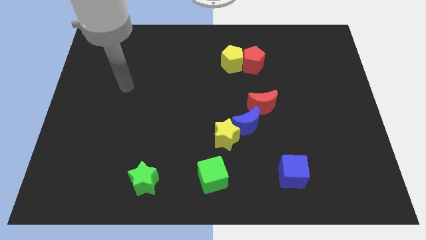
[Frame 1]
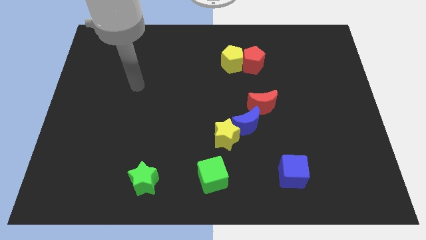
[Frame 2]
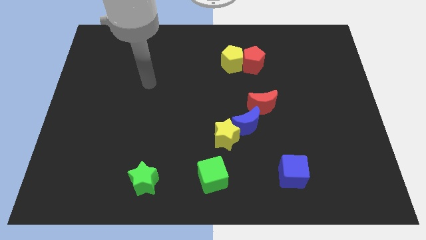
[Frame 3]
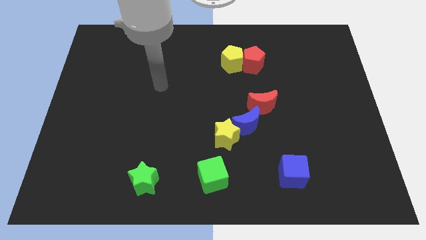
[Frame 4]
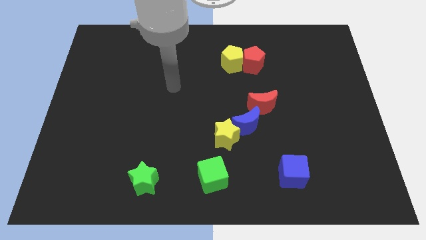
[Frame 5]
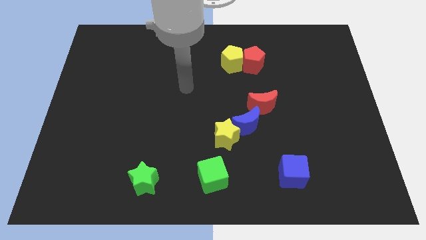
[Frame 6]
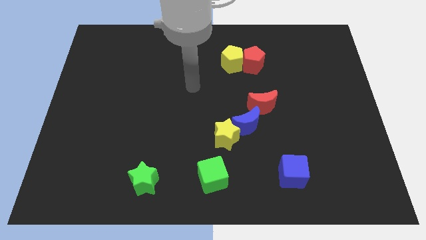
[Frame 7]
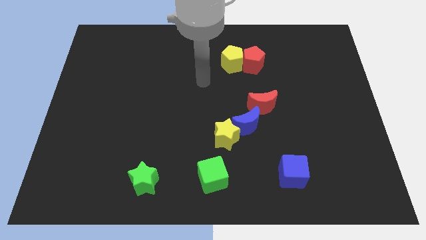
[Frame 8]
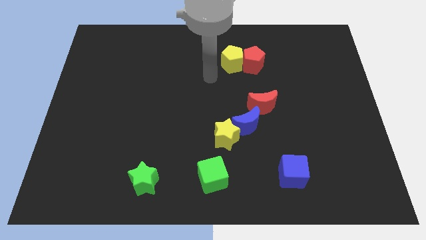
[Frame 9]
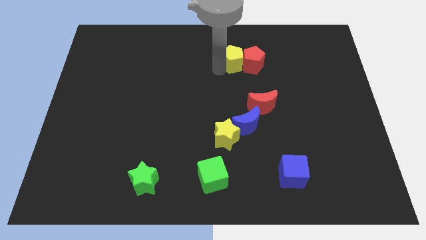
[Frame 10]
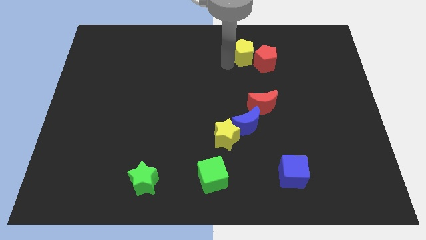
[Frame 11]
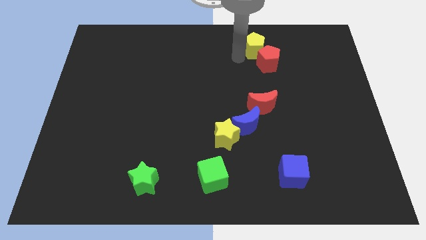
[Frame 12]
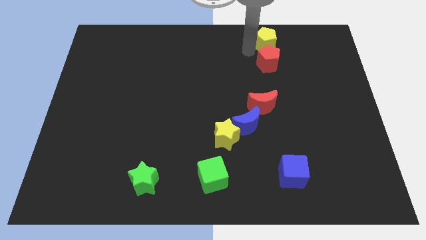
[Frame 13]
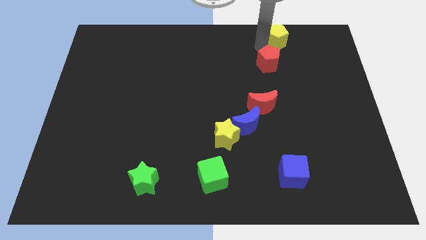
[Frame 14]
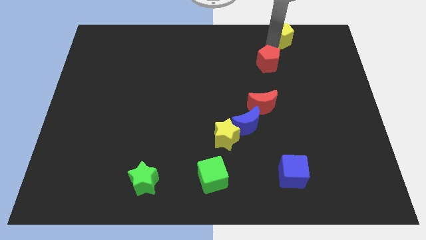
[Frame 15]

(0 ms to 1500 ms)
move the red pentagon away from the yellow pentagon

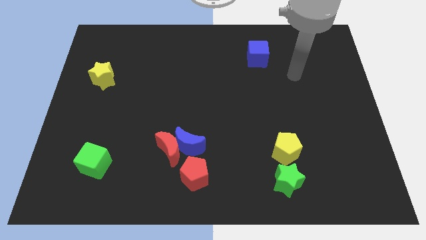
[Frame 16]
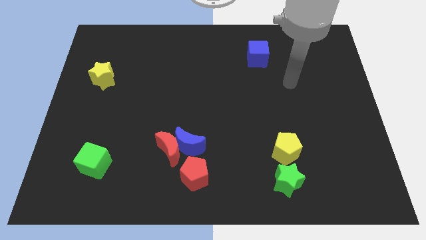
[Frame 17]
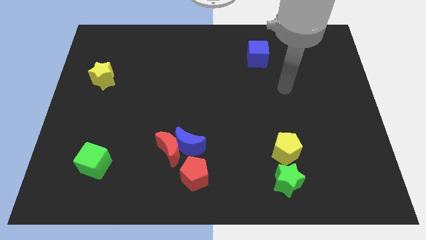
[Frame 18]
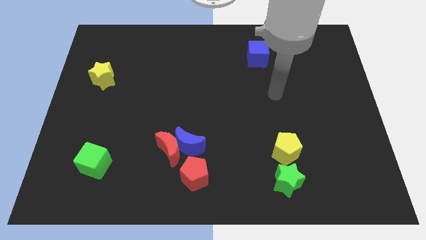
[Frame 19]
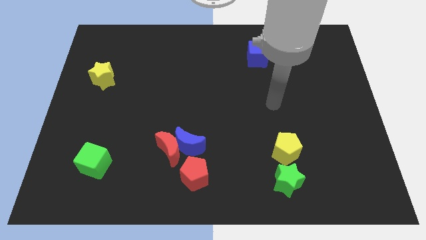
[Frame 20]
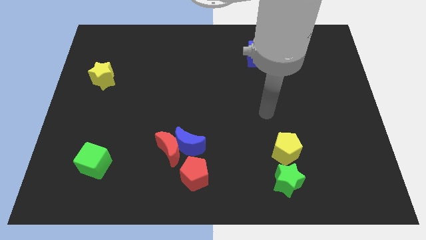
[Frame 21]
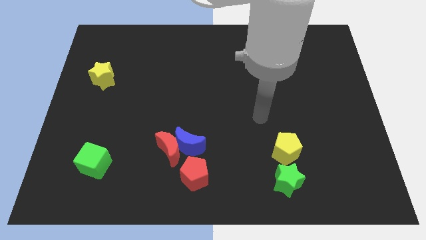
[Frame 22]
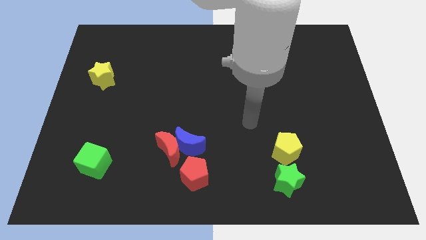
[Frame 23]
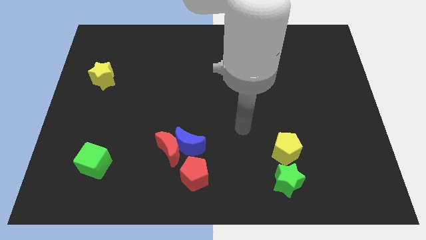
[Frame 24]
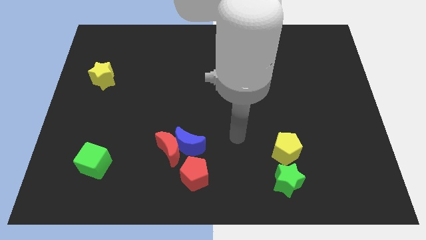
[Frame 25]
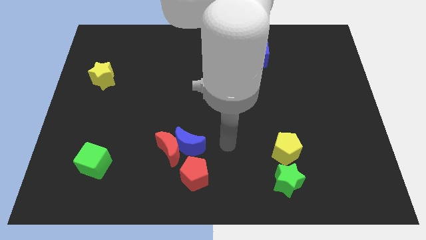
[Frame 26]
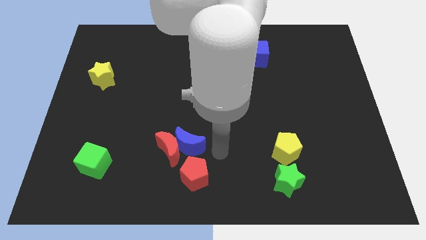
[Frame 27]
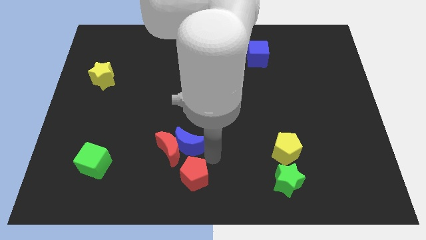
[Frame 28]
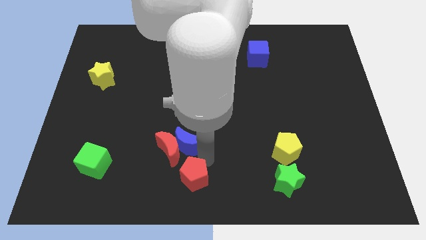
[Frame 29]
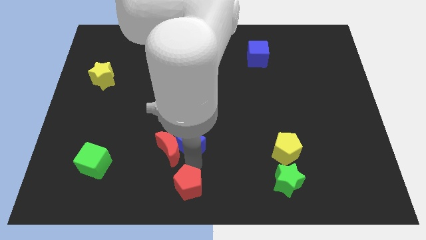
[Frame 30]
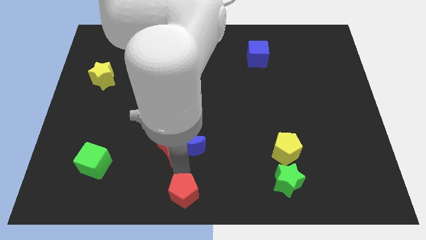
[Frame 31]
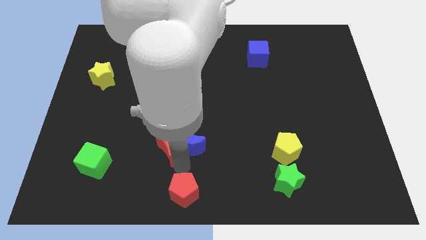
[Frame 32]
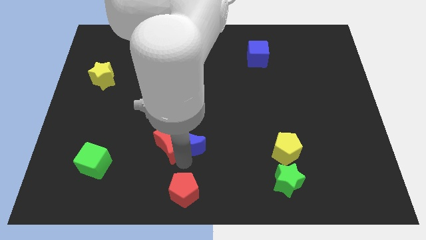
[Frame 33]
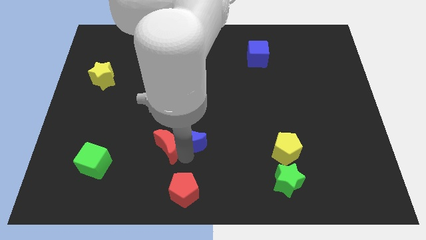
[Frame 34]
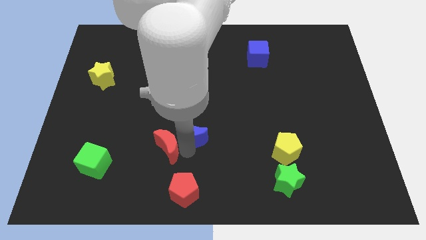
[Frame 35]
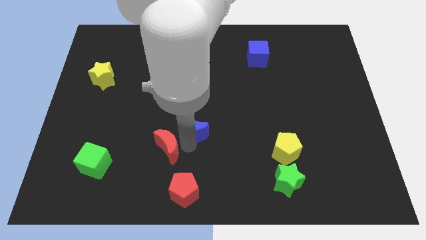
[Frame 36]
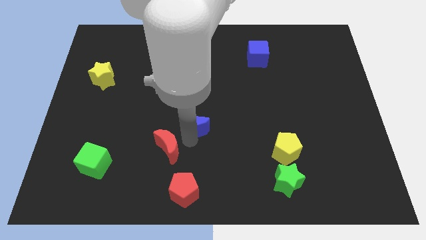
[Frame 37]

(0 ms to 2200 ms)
move the blue moon away from the red moon and red pentagon

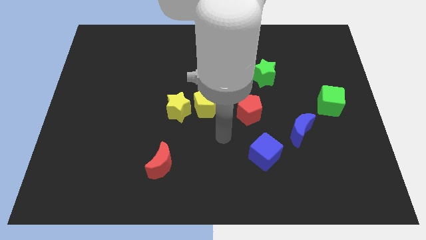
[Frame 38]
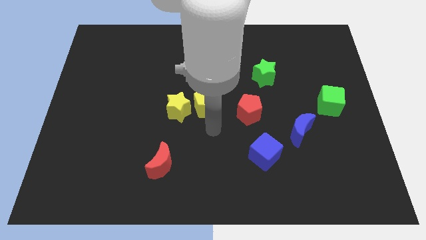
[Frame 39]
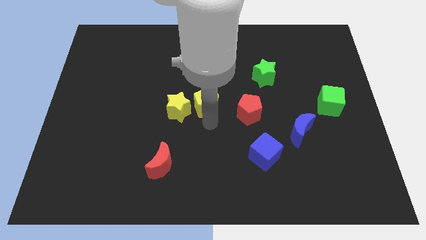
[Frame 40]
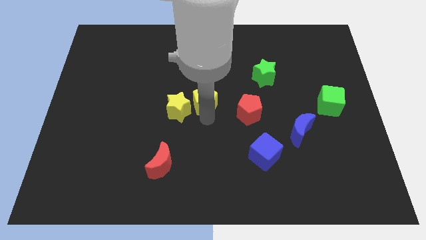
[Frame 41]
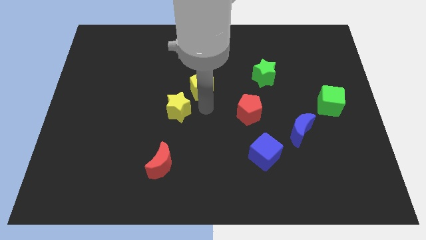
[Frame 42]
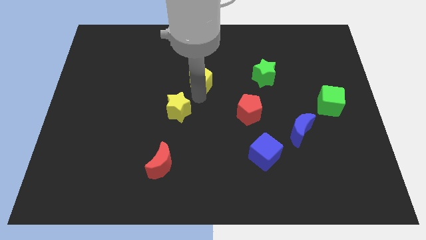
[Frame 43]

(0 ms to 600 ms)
separate the yellow star from the yellow pentagon

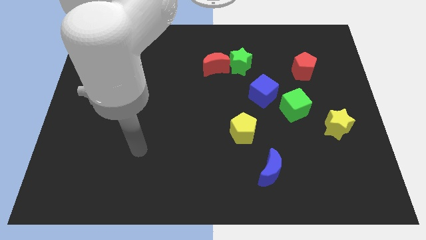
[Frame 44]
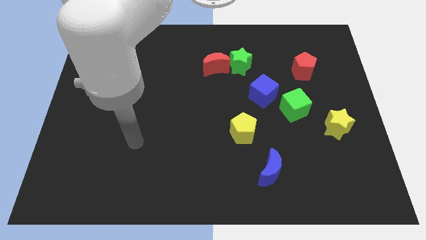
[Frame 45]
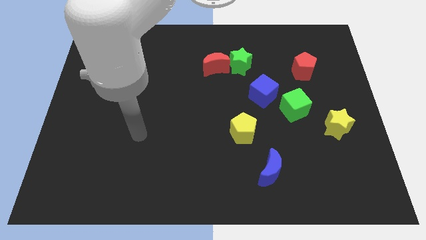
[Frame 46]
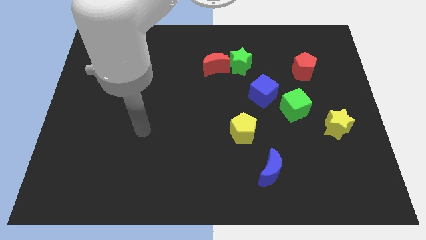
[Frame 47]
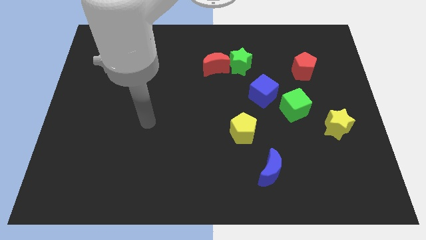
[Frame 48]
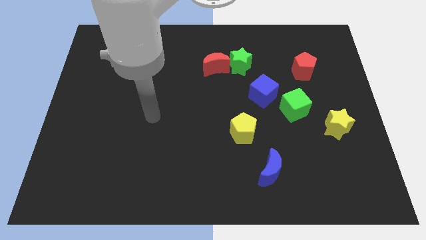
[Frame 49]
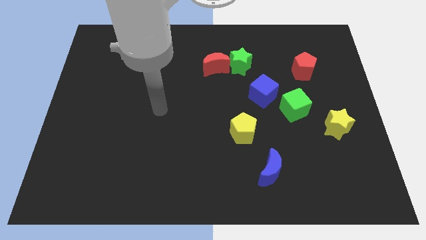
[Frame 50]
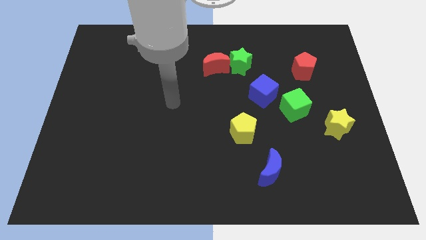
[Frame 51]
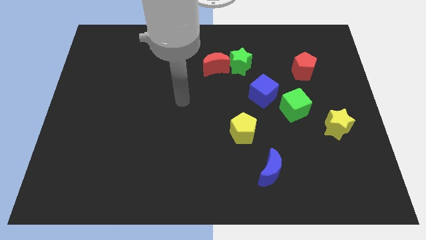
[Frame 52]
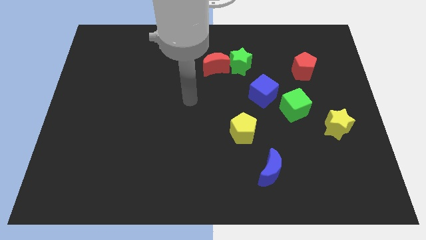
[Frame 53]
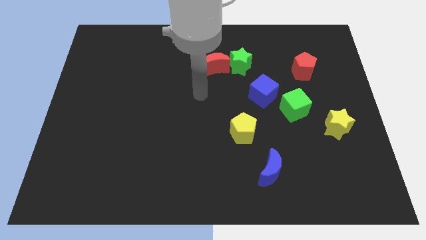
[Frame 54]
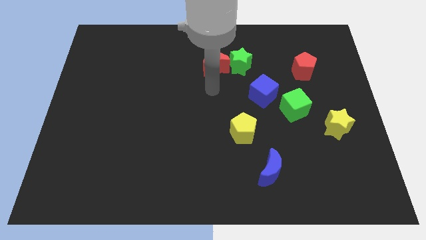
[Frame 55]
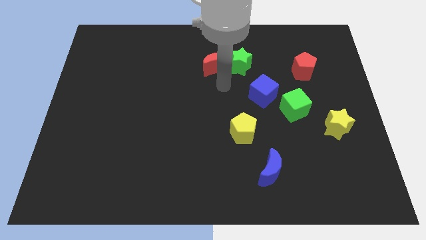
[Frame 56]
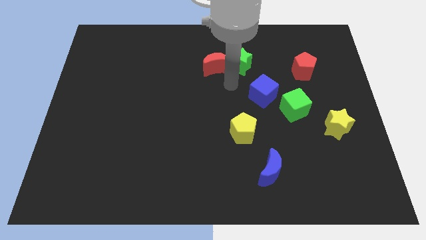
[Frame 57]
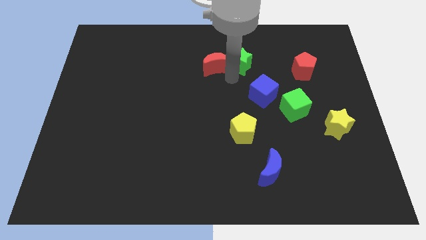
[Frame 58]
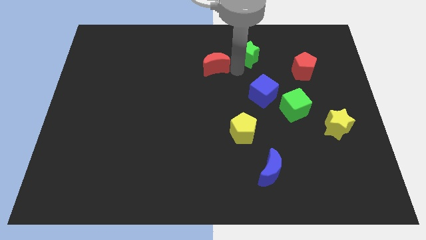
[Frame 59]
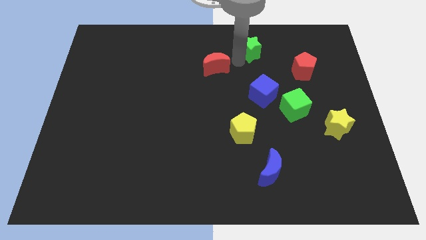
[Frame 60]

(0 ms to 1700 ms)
separate the red moon from the green star

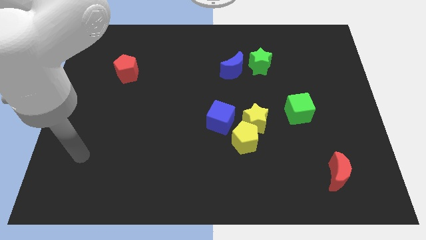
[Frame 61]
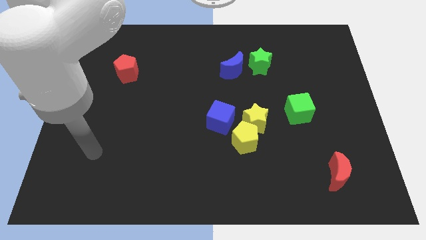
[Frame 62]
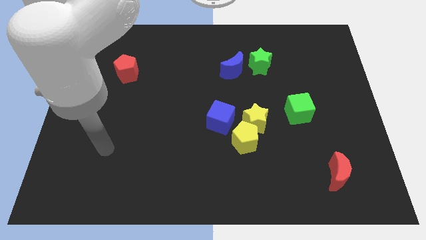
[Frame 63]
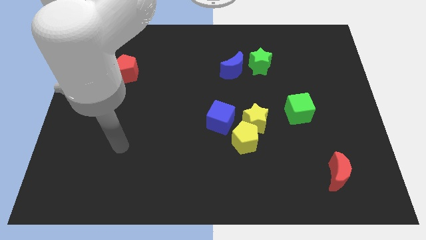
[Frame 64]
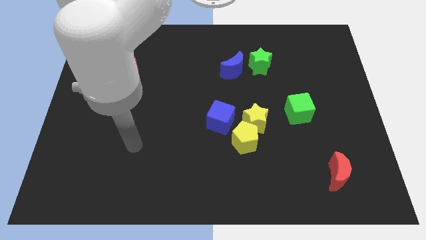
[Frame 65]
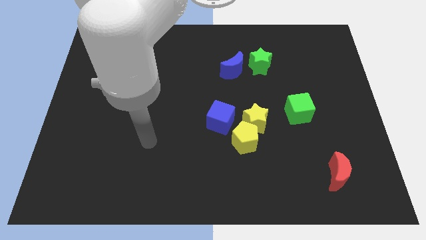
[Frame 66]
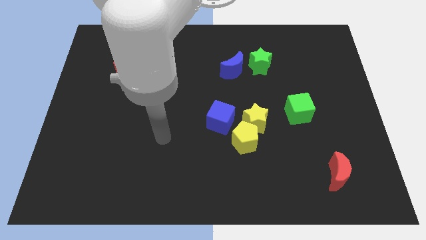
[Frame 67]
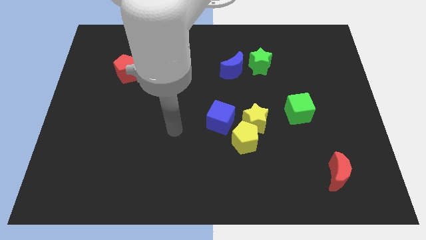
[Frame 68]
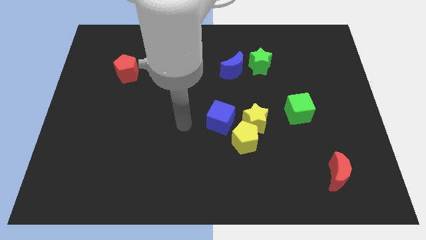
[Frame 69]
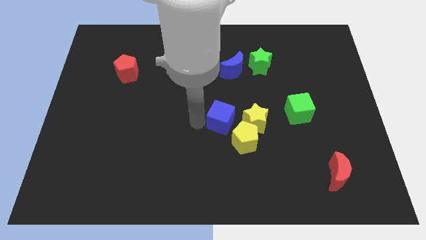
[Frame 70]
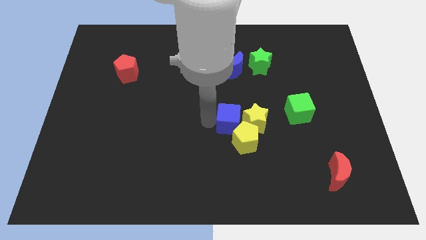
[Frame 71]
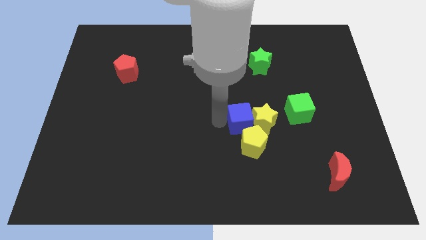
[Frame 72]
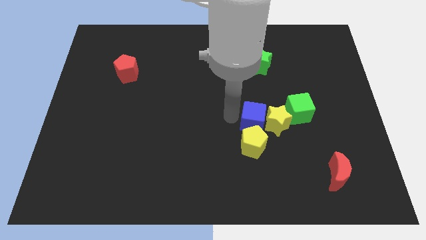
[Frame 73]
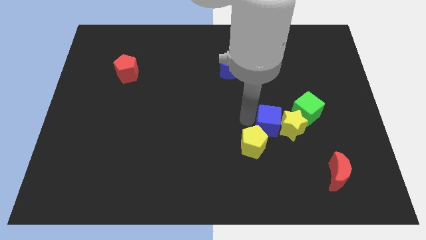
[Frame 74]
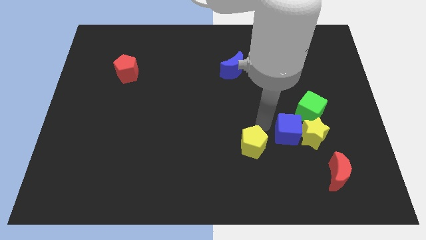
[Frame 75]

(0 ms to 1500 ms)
pull the yellow pentagon apart from the yellow star and blue cube

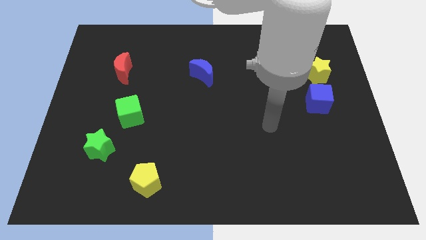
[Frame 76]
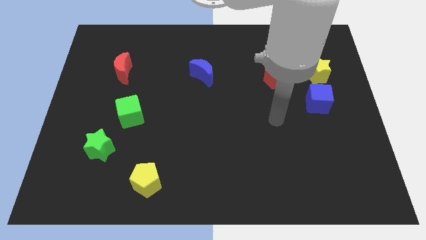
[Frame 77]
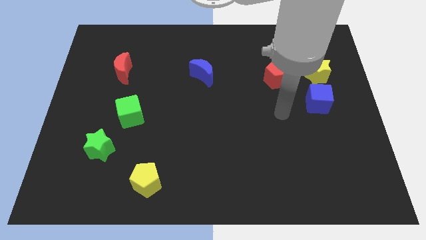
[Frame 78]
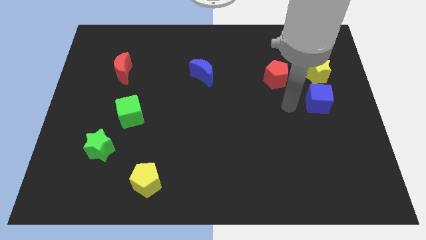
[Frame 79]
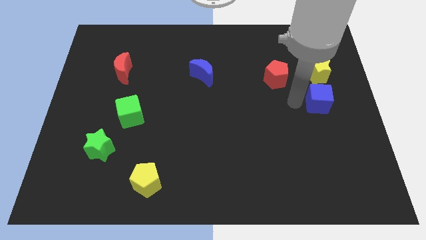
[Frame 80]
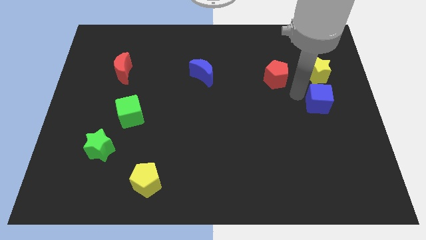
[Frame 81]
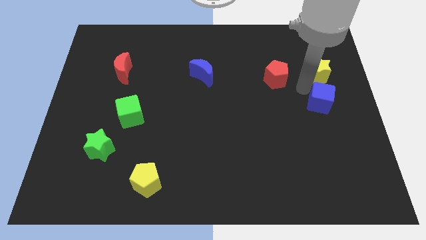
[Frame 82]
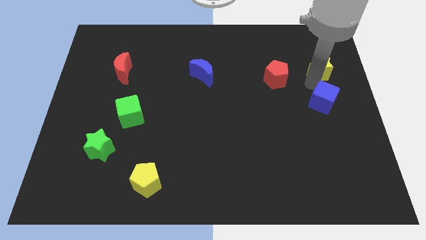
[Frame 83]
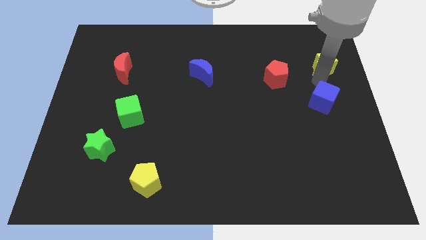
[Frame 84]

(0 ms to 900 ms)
pull the blue cube apart from the yellow star

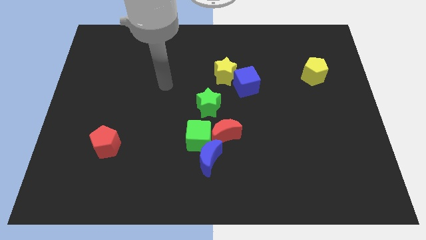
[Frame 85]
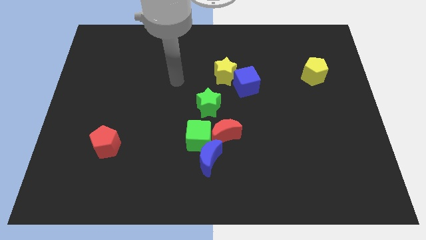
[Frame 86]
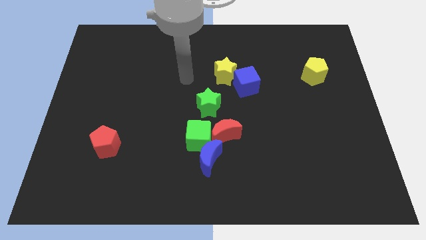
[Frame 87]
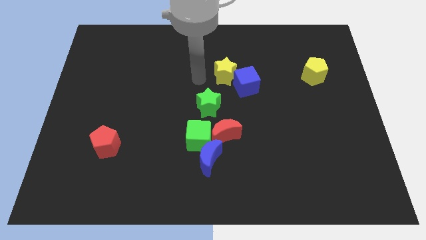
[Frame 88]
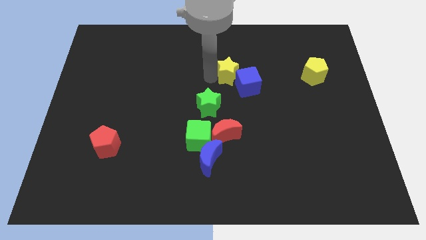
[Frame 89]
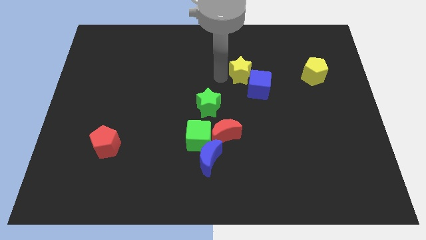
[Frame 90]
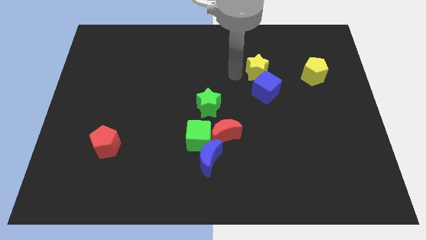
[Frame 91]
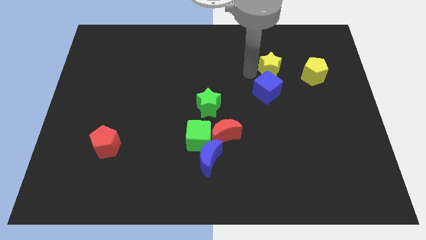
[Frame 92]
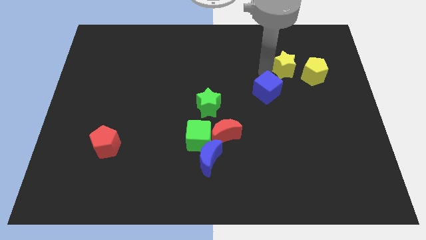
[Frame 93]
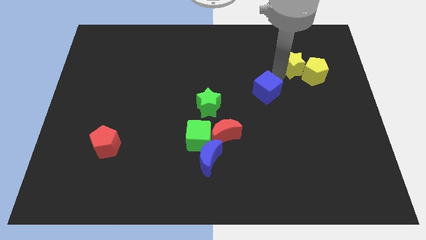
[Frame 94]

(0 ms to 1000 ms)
separate the blue cube from the yellow star

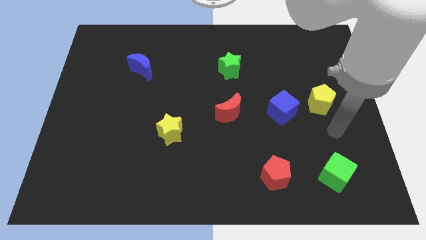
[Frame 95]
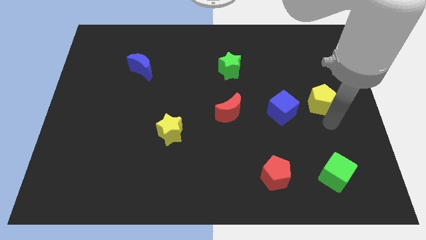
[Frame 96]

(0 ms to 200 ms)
pull the blue cube apart from the yellow pentagon
